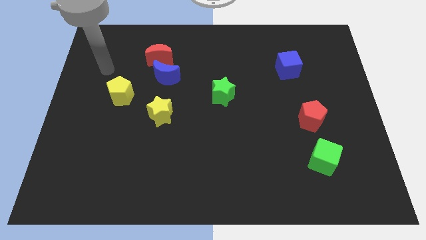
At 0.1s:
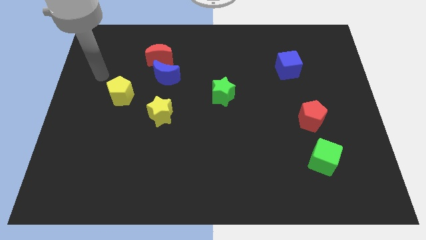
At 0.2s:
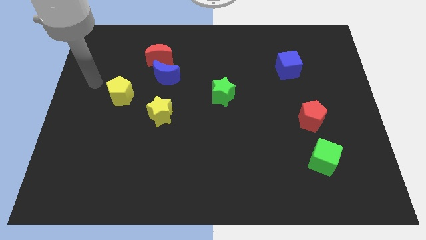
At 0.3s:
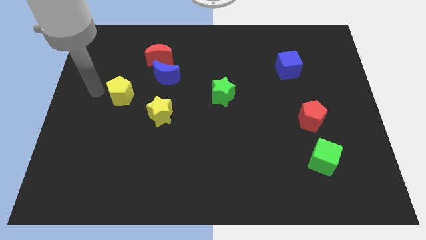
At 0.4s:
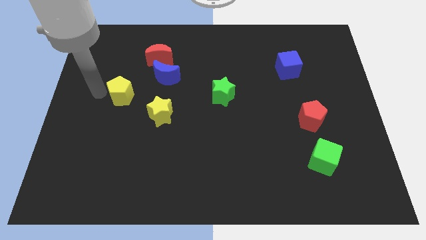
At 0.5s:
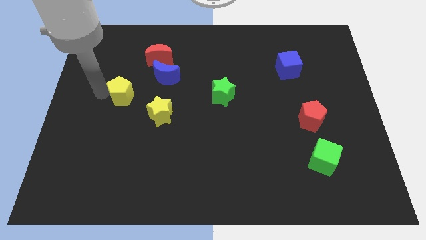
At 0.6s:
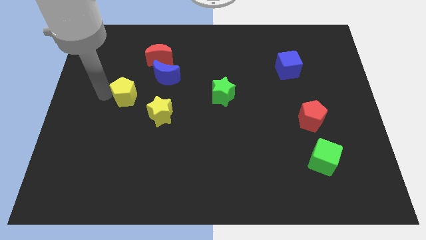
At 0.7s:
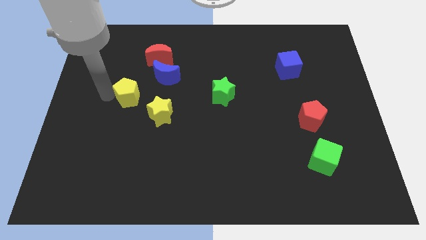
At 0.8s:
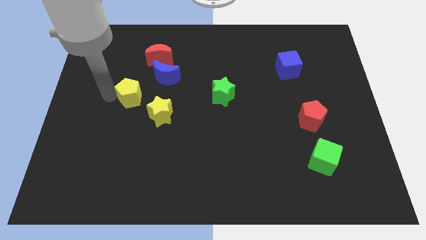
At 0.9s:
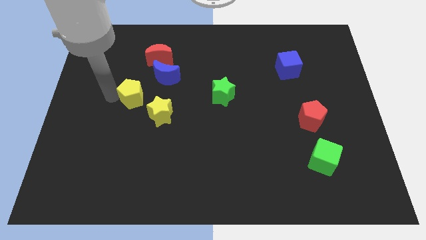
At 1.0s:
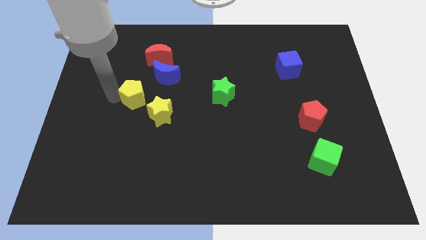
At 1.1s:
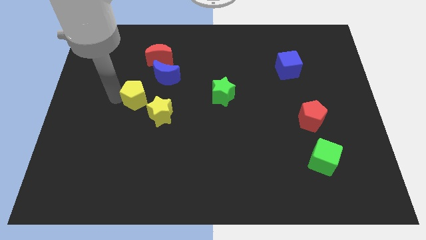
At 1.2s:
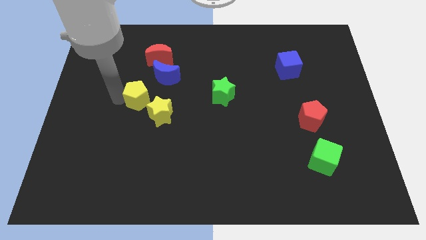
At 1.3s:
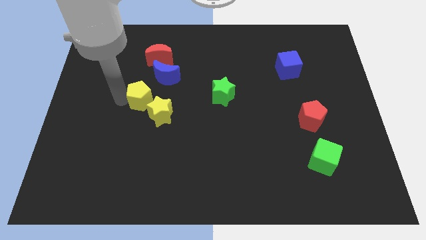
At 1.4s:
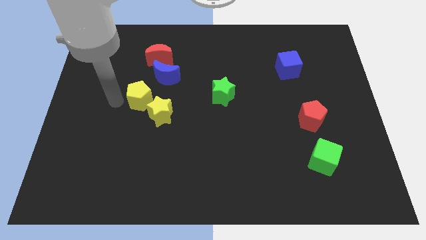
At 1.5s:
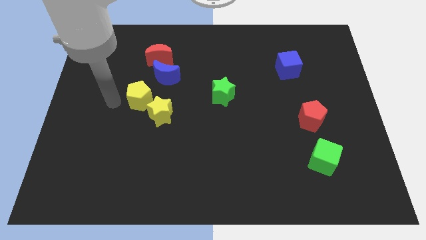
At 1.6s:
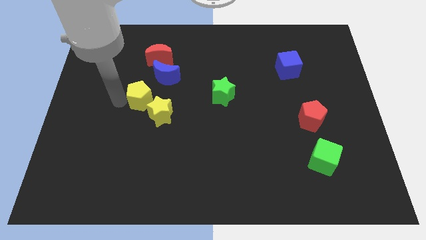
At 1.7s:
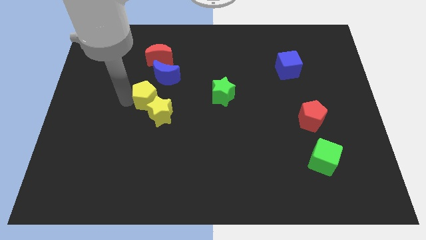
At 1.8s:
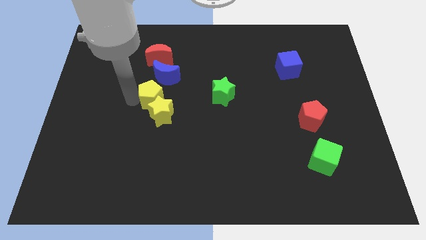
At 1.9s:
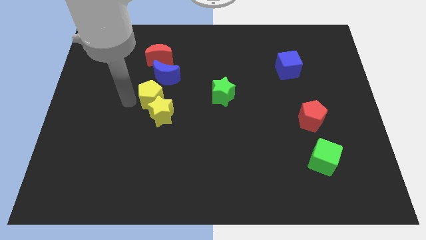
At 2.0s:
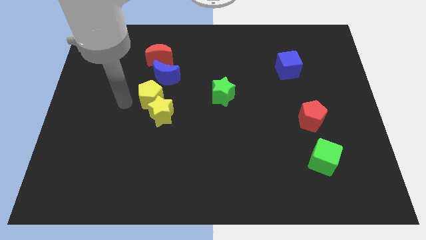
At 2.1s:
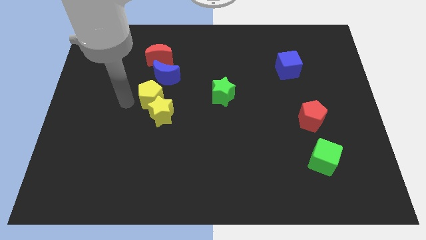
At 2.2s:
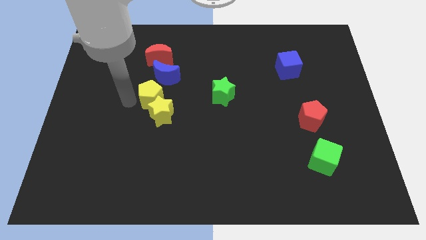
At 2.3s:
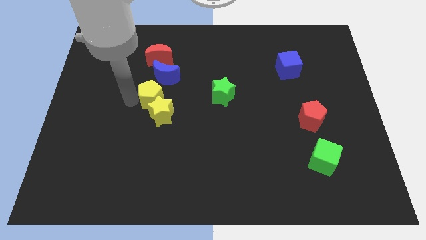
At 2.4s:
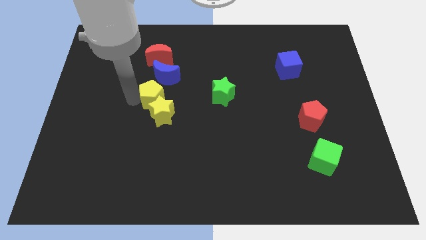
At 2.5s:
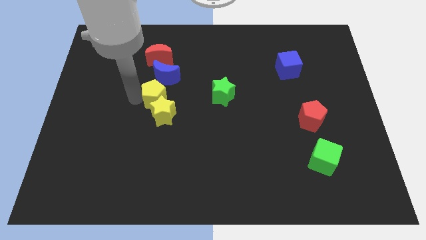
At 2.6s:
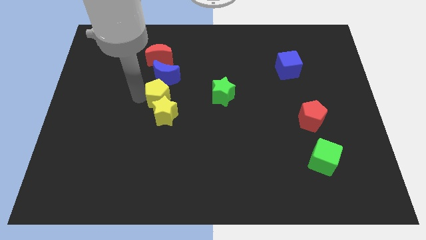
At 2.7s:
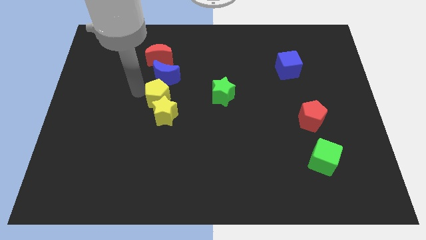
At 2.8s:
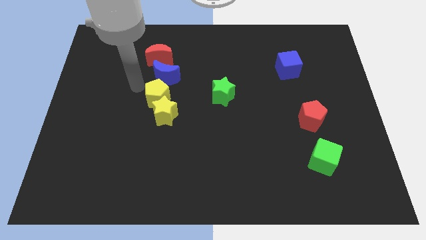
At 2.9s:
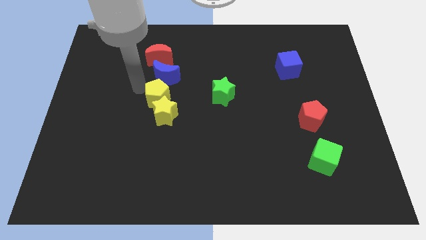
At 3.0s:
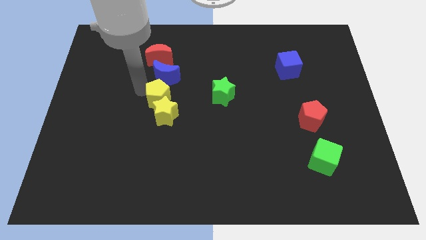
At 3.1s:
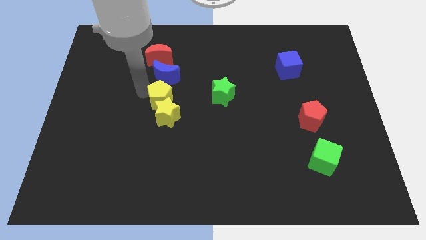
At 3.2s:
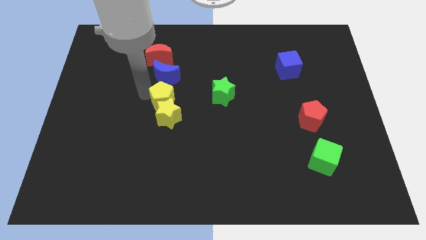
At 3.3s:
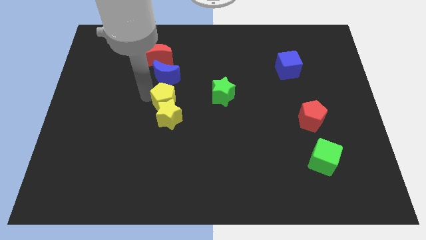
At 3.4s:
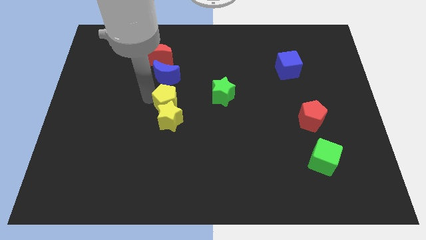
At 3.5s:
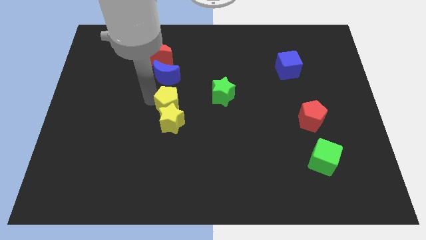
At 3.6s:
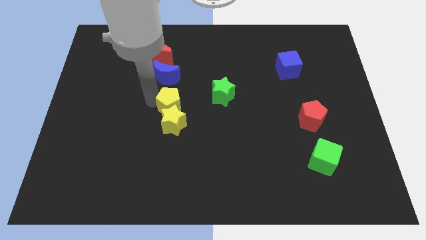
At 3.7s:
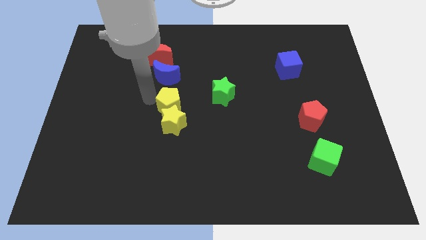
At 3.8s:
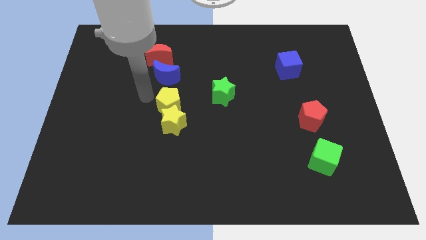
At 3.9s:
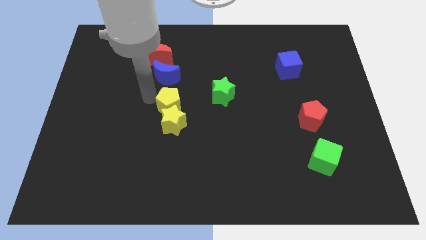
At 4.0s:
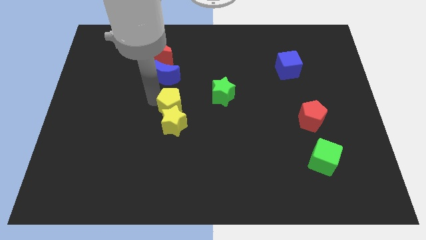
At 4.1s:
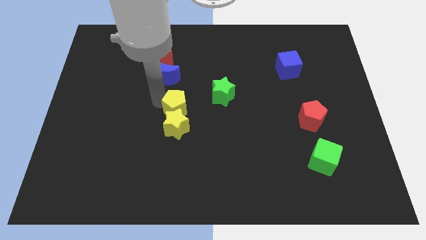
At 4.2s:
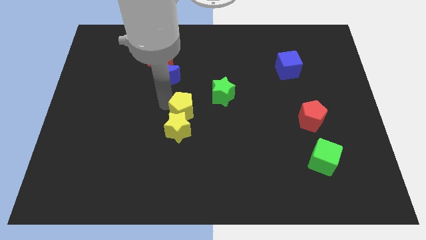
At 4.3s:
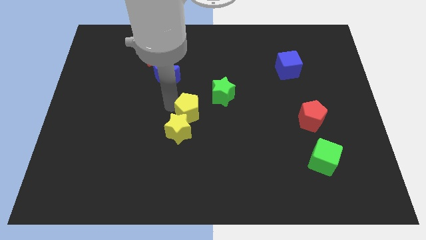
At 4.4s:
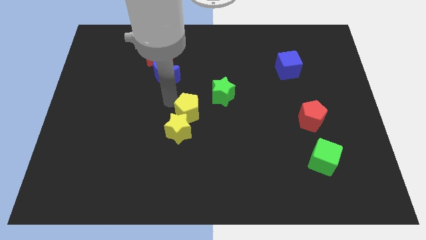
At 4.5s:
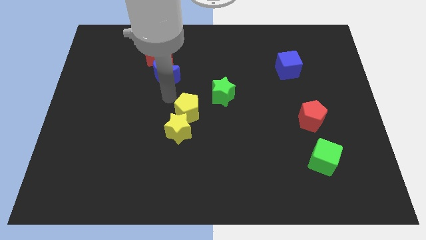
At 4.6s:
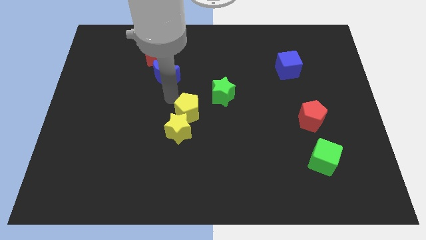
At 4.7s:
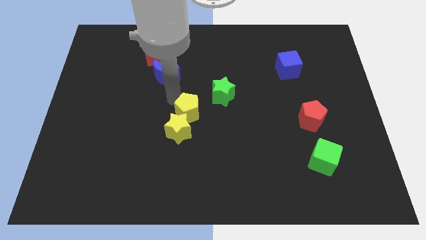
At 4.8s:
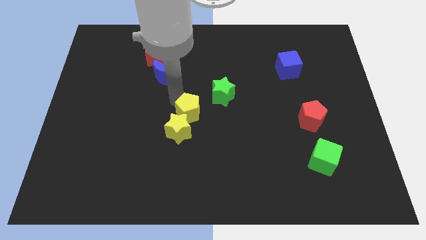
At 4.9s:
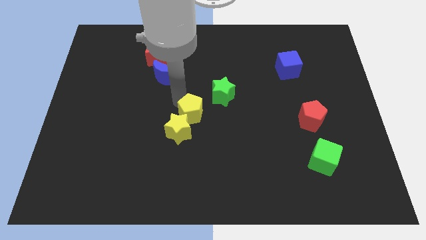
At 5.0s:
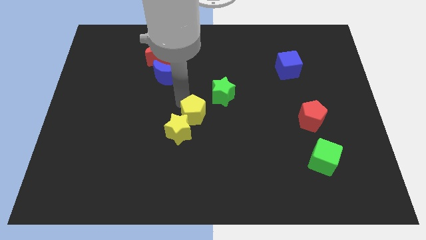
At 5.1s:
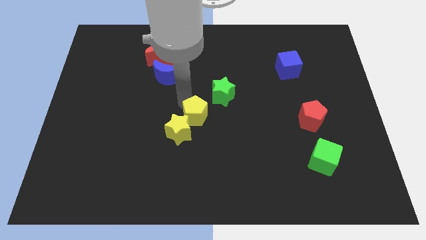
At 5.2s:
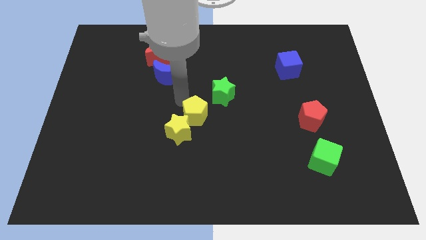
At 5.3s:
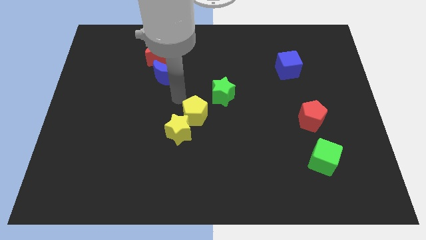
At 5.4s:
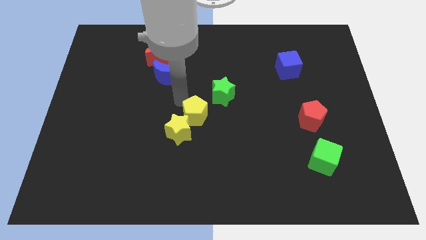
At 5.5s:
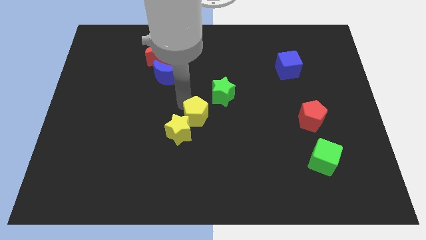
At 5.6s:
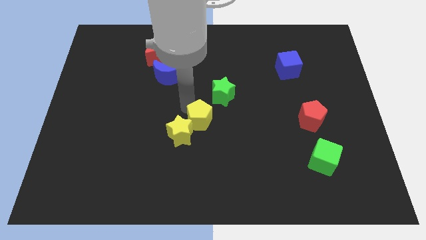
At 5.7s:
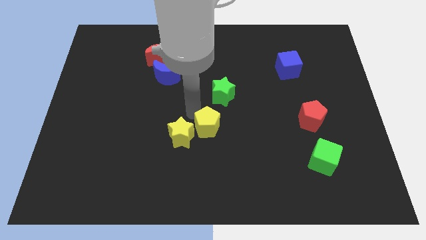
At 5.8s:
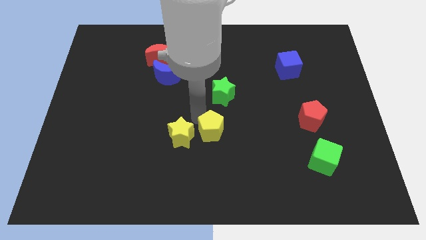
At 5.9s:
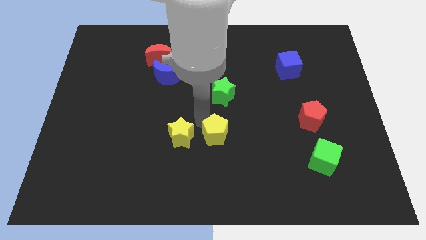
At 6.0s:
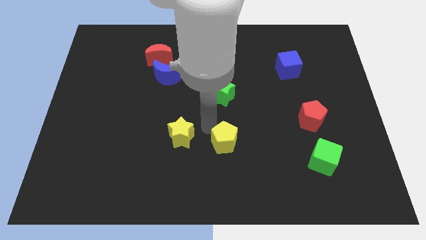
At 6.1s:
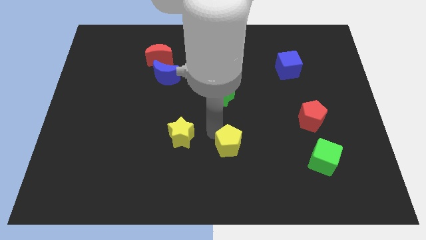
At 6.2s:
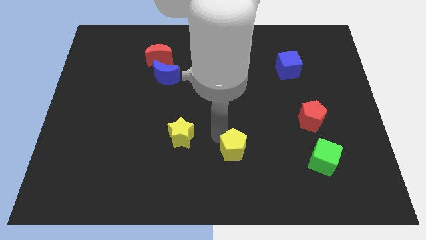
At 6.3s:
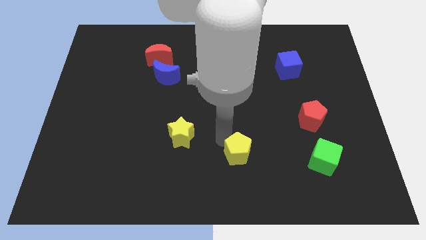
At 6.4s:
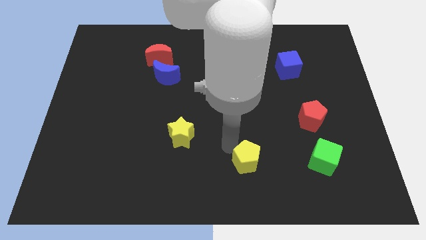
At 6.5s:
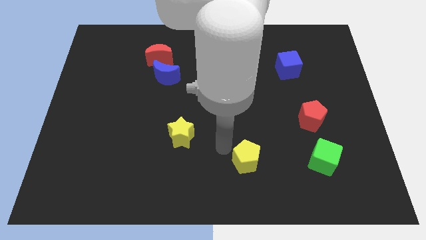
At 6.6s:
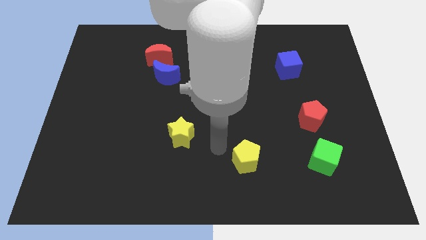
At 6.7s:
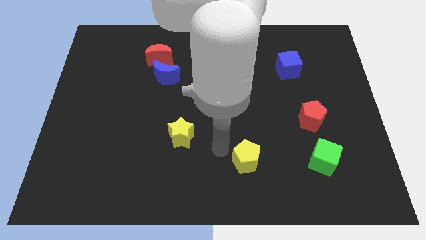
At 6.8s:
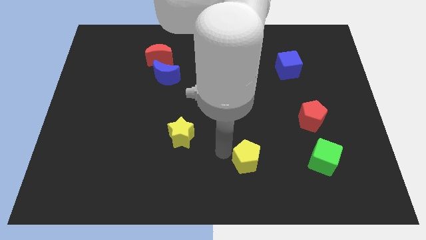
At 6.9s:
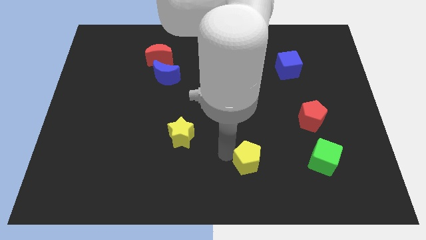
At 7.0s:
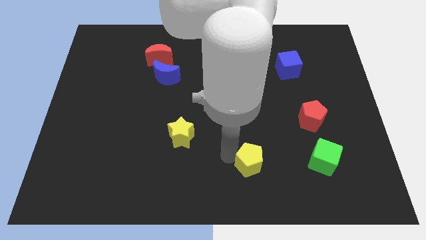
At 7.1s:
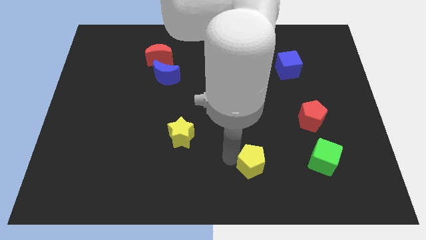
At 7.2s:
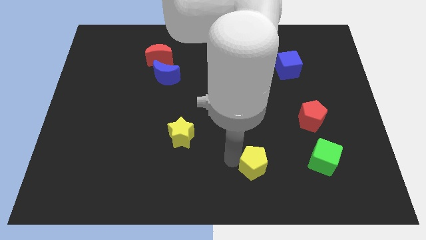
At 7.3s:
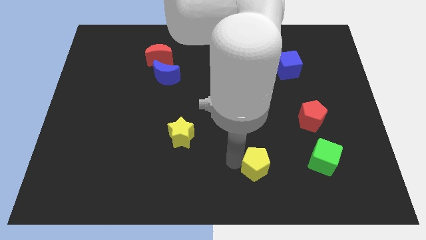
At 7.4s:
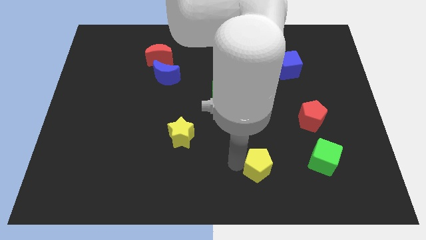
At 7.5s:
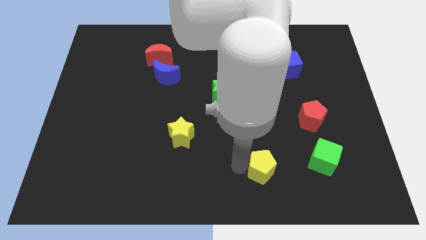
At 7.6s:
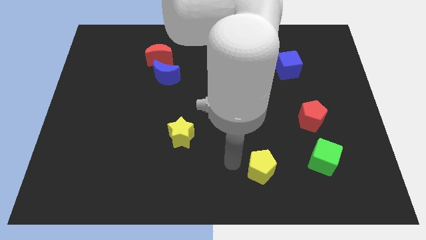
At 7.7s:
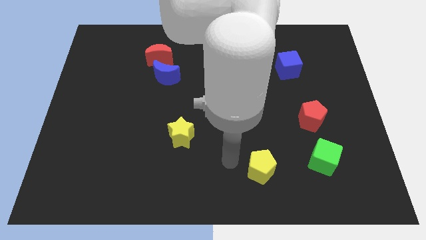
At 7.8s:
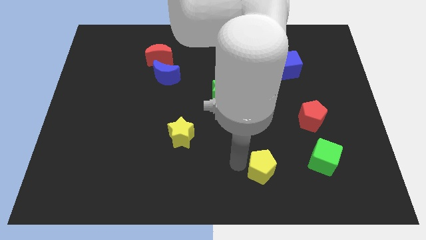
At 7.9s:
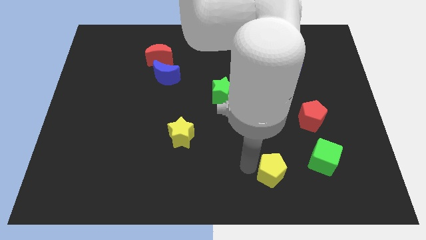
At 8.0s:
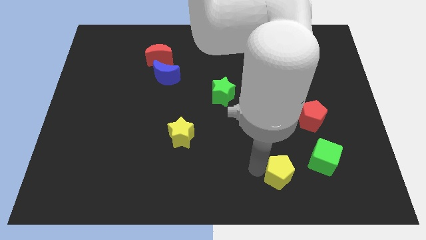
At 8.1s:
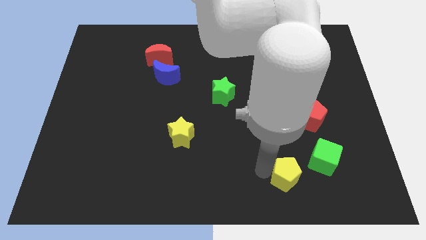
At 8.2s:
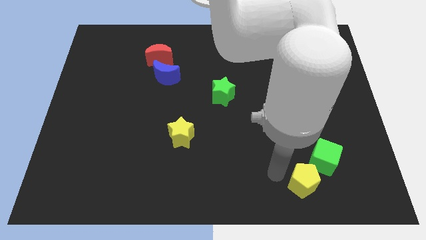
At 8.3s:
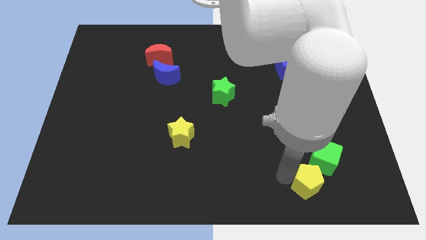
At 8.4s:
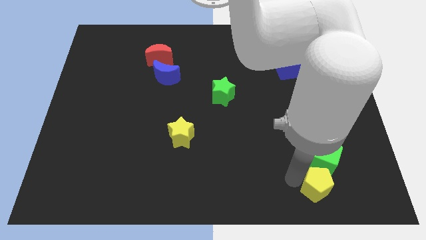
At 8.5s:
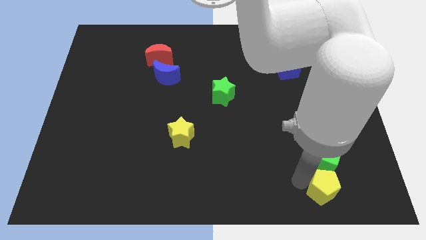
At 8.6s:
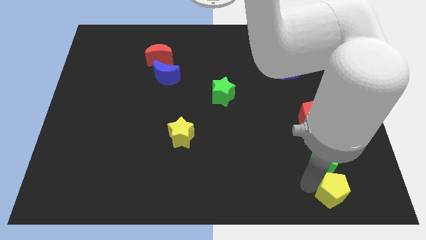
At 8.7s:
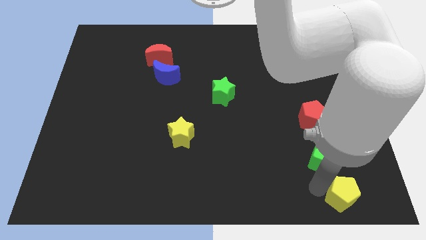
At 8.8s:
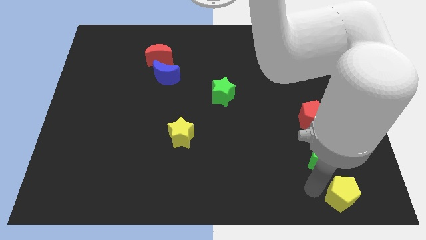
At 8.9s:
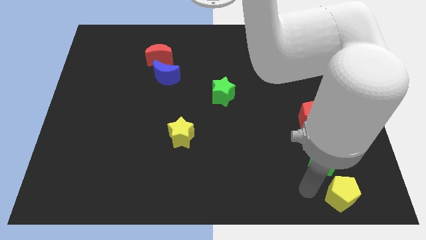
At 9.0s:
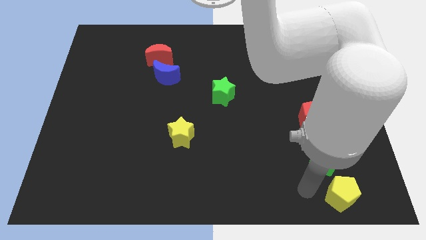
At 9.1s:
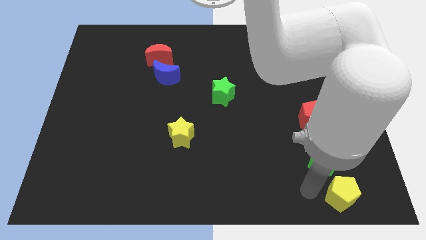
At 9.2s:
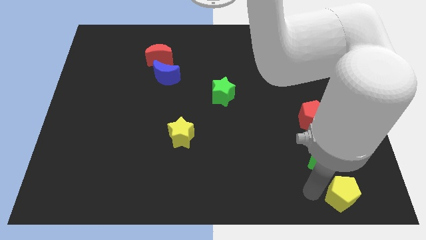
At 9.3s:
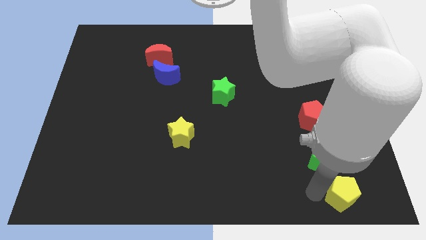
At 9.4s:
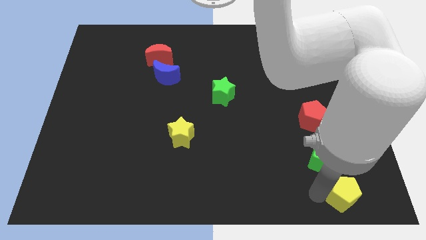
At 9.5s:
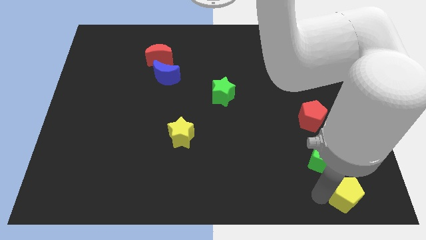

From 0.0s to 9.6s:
put the yellow pentagon to the bottom right
